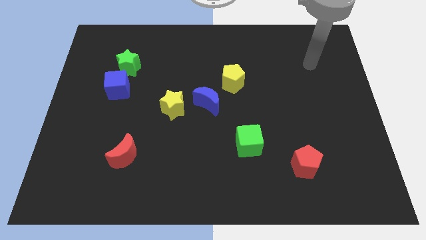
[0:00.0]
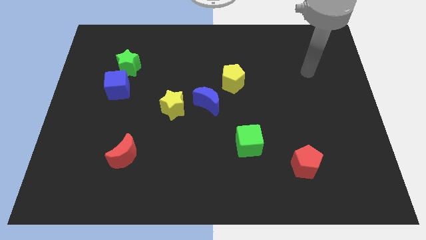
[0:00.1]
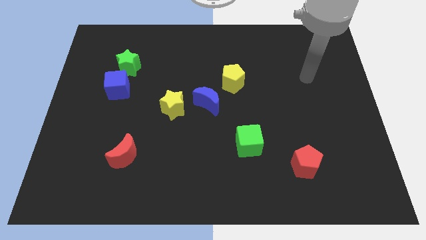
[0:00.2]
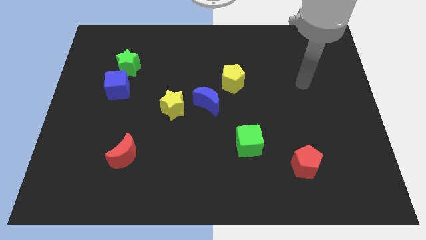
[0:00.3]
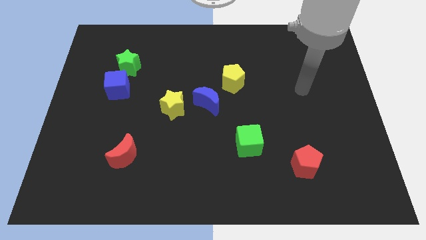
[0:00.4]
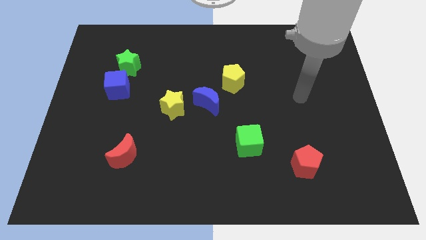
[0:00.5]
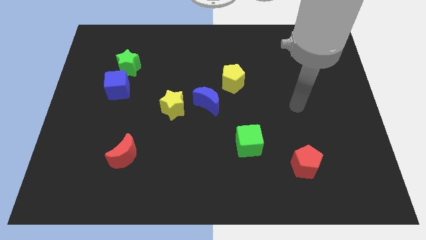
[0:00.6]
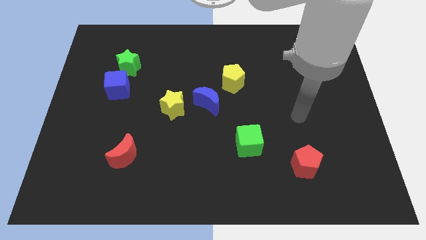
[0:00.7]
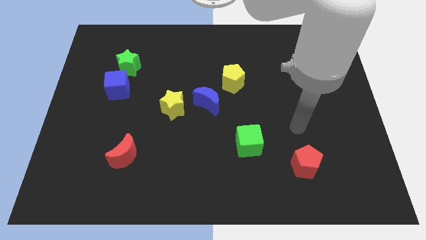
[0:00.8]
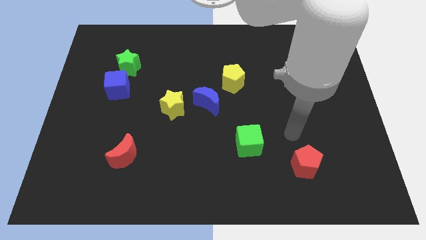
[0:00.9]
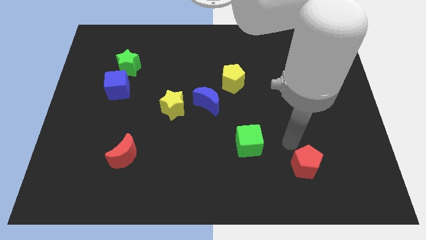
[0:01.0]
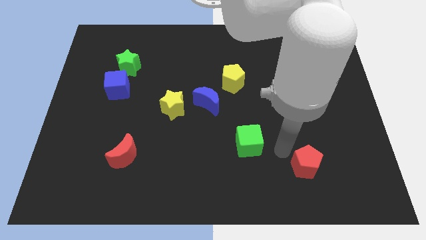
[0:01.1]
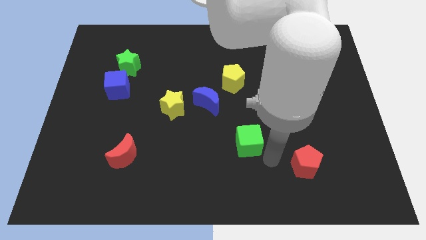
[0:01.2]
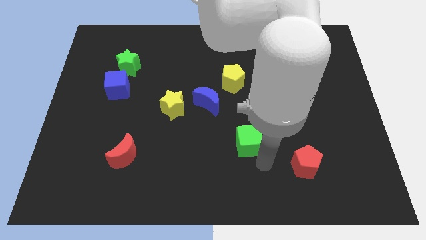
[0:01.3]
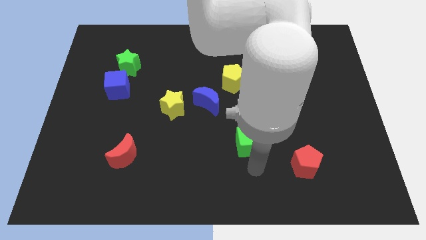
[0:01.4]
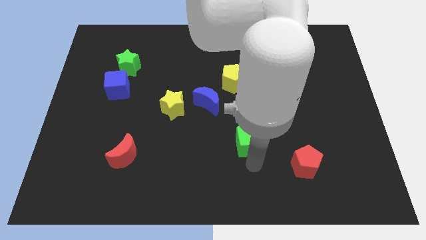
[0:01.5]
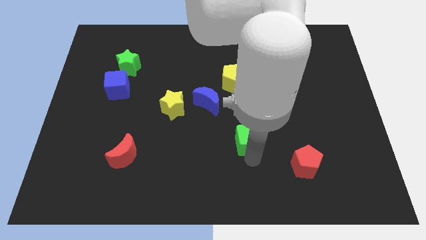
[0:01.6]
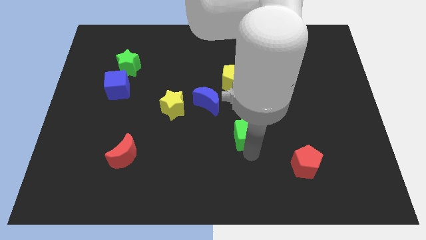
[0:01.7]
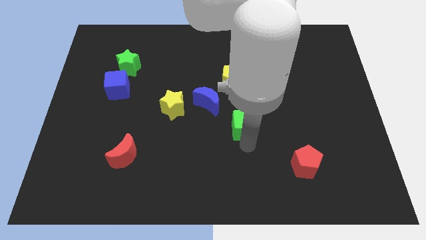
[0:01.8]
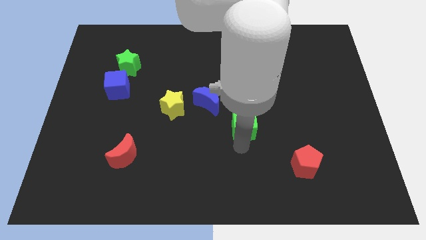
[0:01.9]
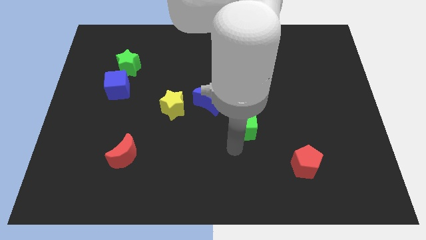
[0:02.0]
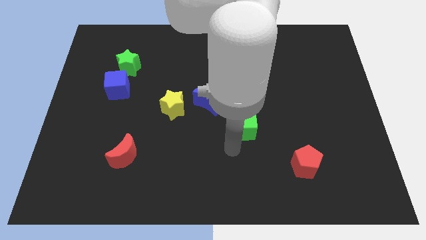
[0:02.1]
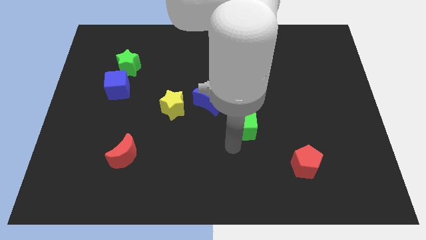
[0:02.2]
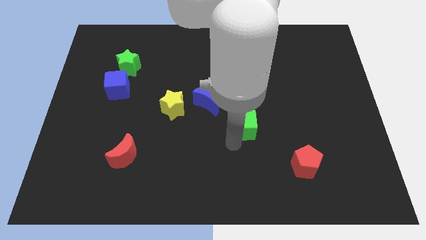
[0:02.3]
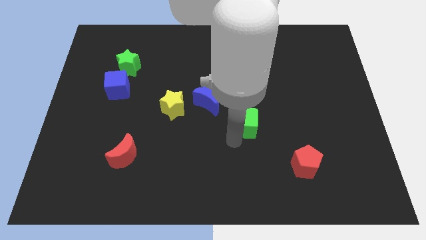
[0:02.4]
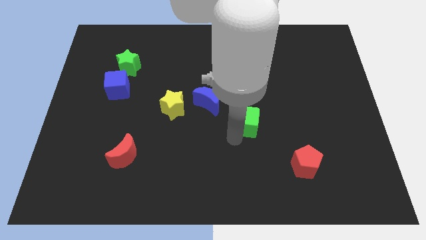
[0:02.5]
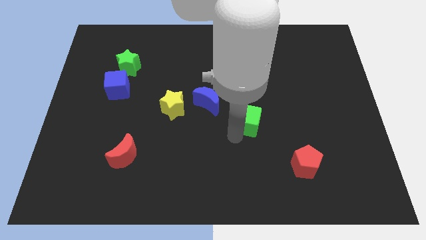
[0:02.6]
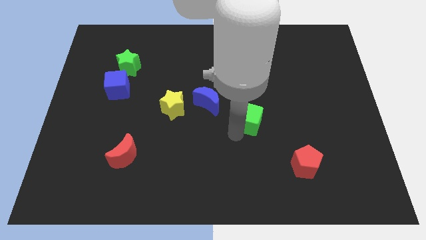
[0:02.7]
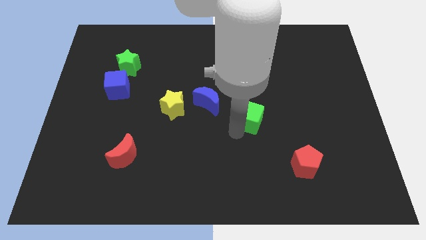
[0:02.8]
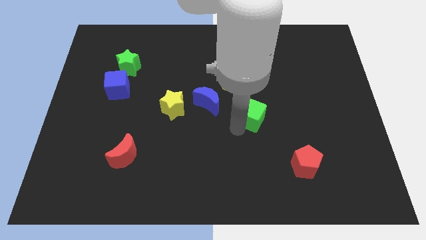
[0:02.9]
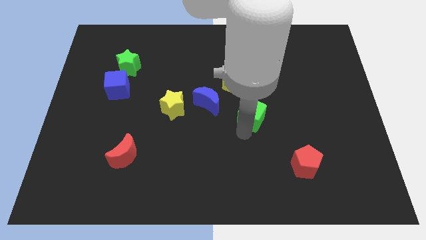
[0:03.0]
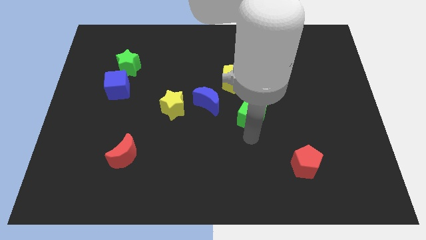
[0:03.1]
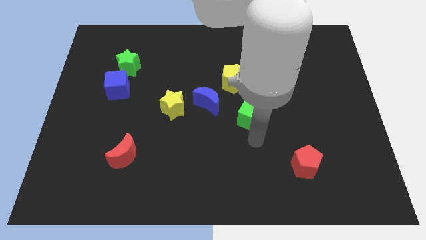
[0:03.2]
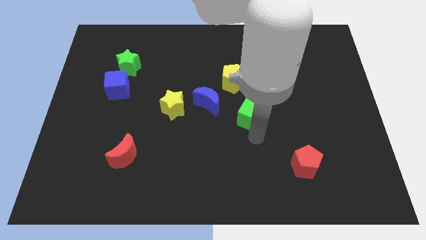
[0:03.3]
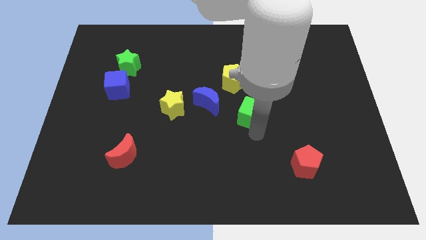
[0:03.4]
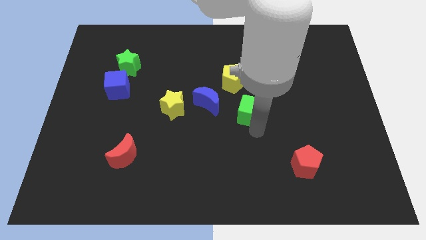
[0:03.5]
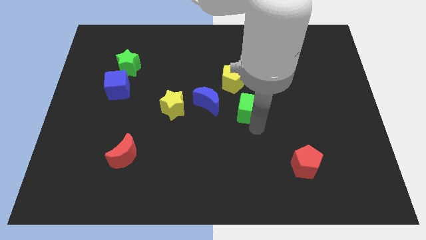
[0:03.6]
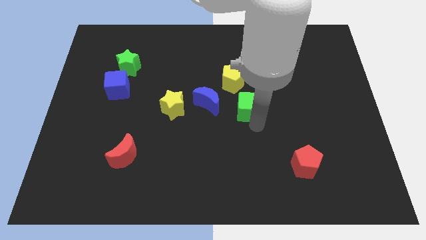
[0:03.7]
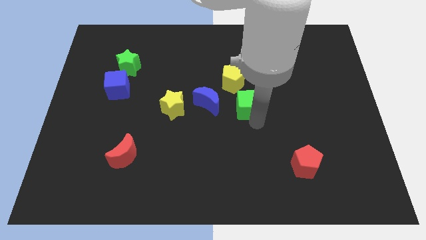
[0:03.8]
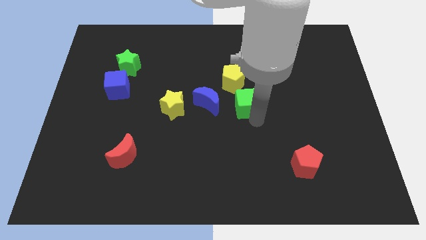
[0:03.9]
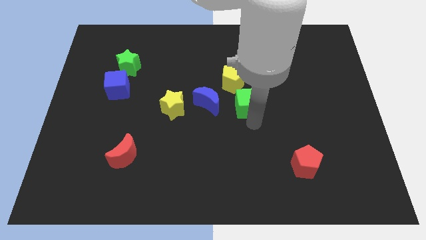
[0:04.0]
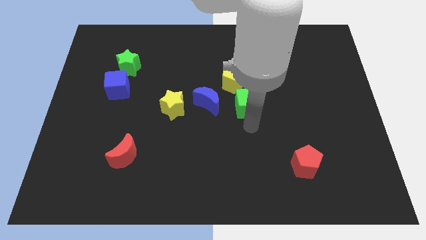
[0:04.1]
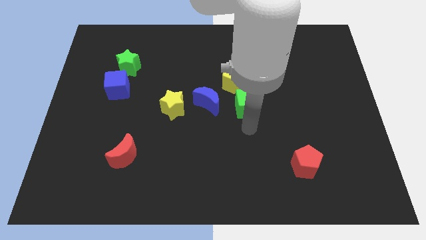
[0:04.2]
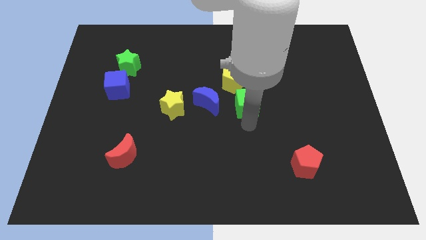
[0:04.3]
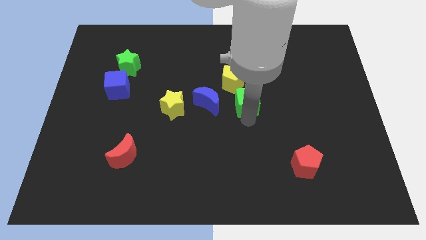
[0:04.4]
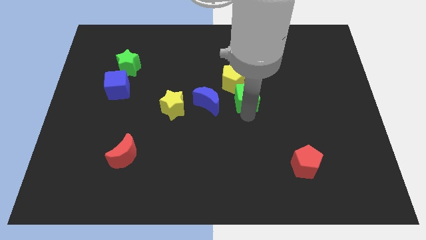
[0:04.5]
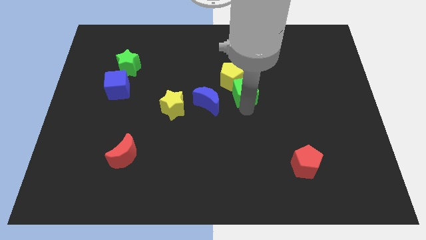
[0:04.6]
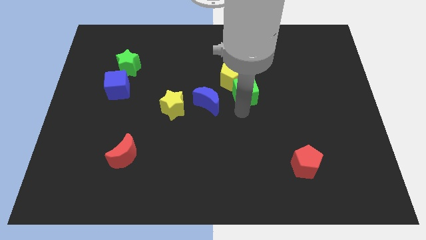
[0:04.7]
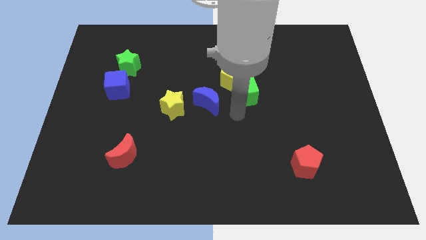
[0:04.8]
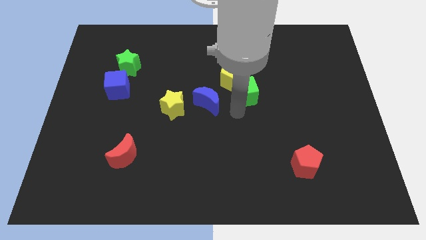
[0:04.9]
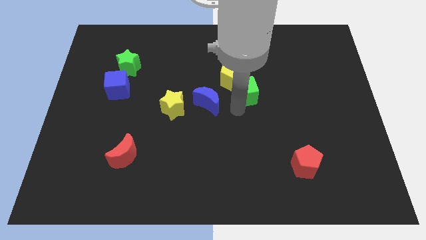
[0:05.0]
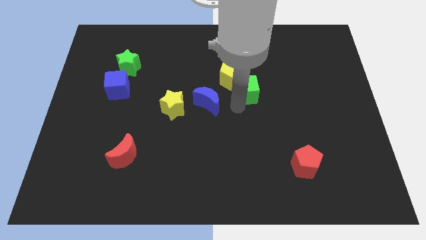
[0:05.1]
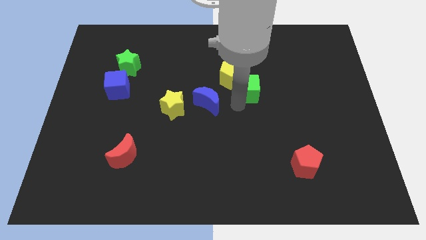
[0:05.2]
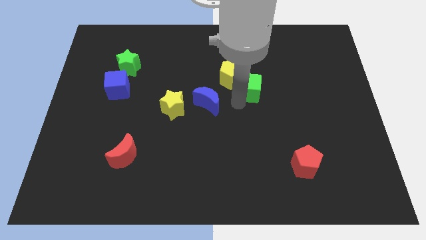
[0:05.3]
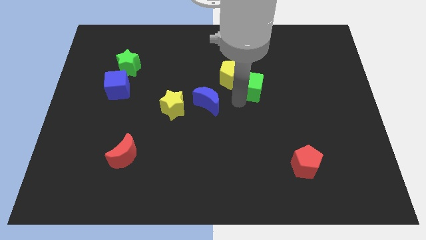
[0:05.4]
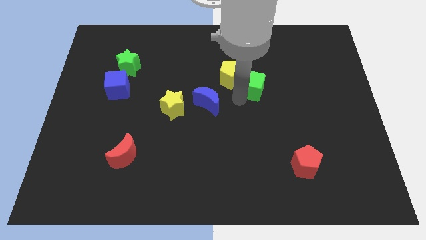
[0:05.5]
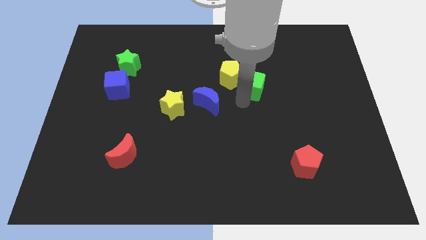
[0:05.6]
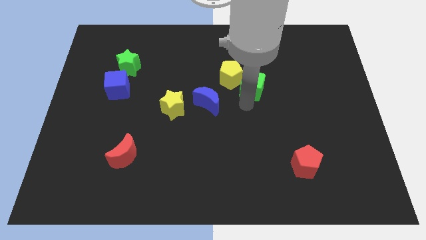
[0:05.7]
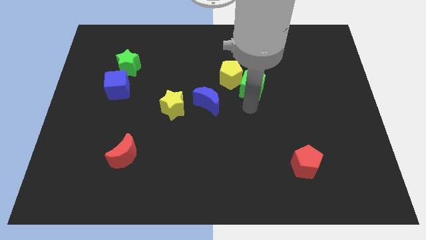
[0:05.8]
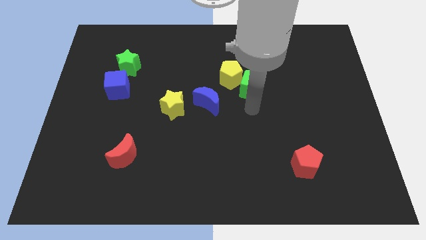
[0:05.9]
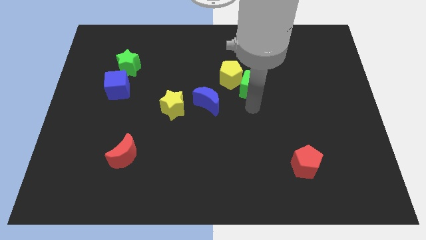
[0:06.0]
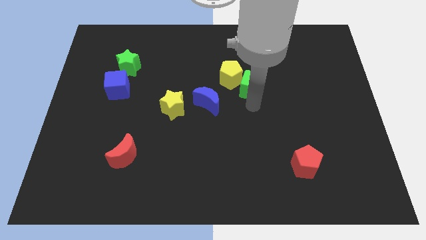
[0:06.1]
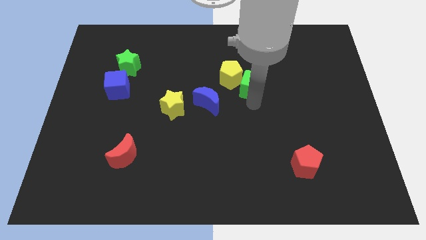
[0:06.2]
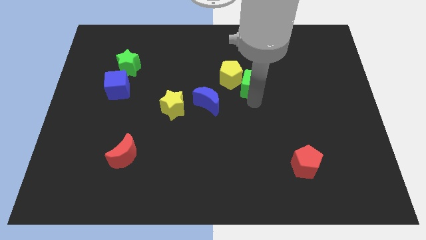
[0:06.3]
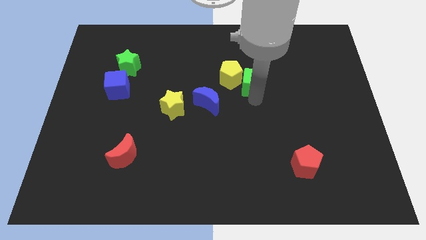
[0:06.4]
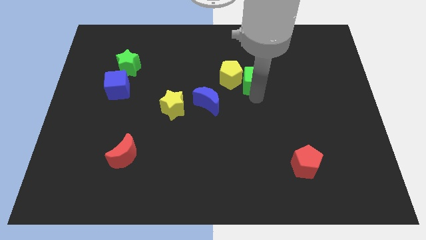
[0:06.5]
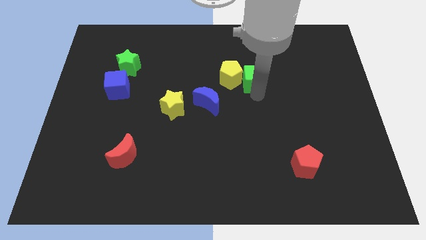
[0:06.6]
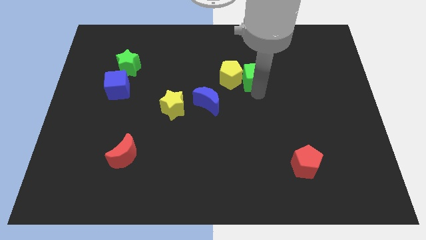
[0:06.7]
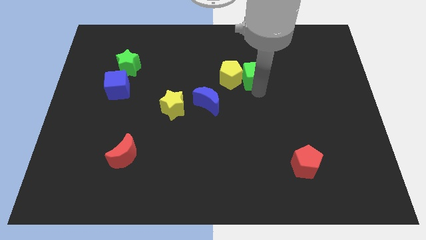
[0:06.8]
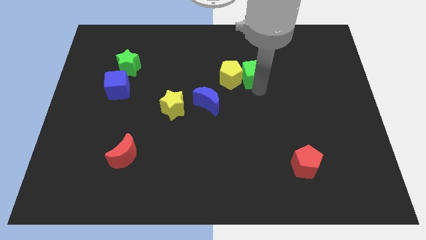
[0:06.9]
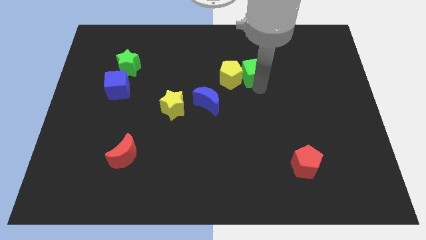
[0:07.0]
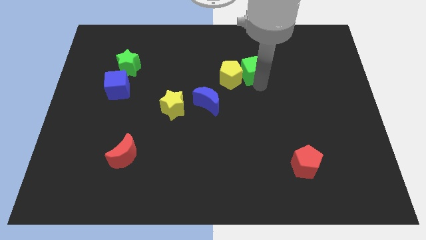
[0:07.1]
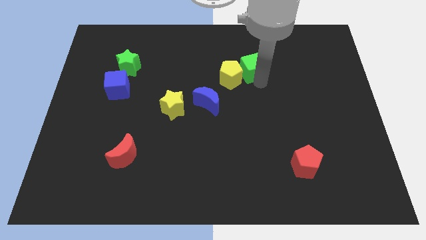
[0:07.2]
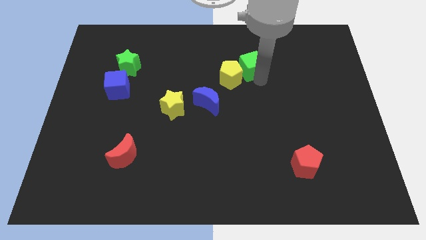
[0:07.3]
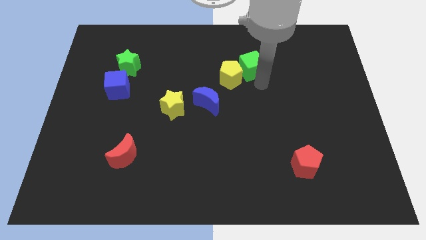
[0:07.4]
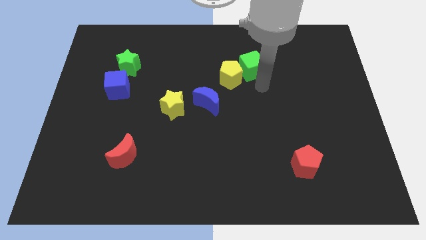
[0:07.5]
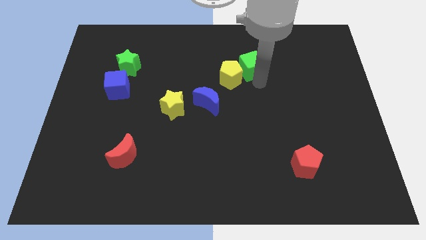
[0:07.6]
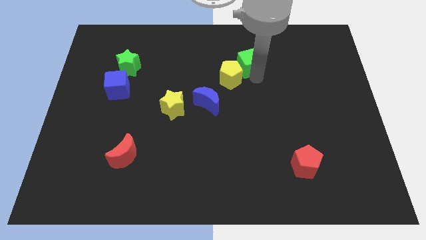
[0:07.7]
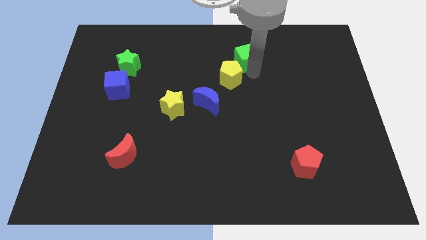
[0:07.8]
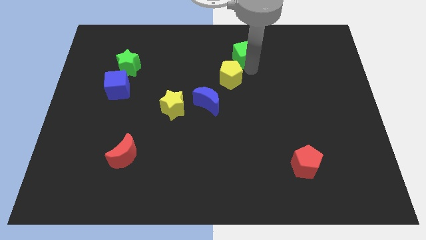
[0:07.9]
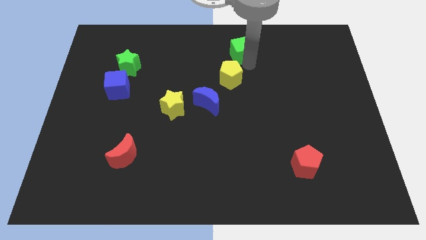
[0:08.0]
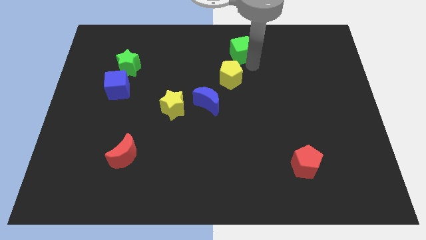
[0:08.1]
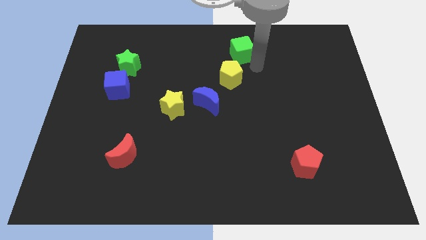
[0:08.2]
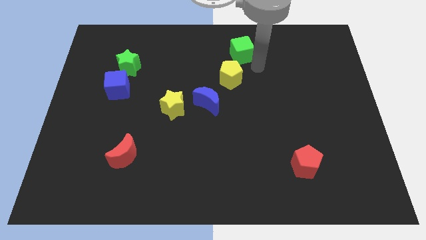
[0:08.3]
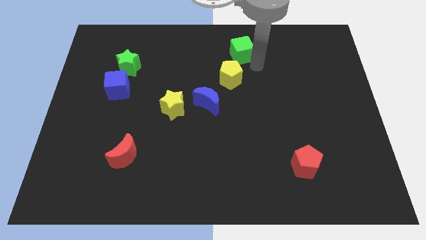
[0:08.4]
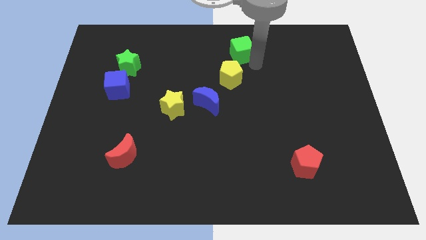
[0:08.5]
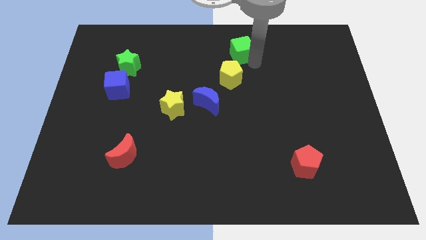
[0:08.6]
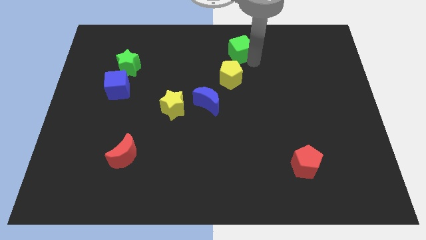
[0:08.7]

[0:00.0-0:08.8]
move the green cube to the top
